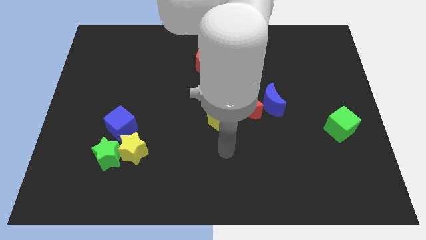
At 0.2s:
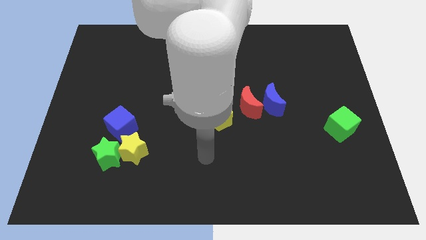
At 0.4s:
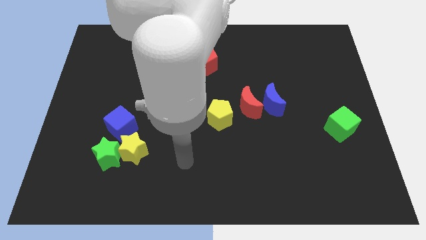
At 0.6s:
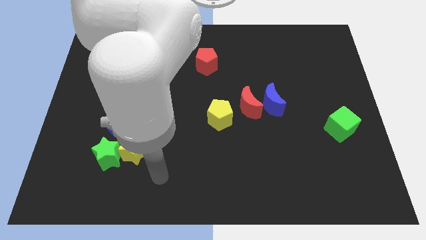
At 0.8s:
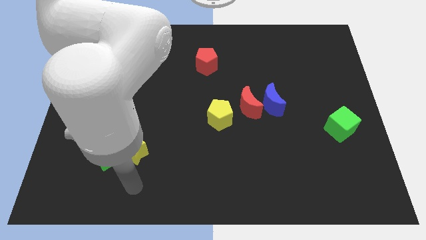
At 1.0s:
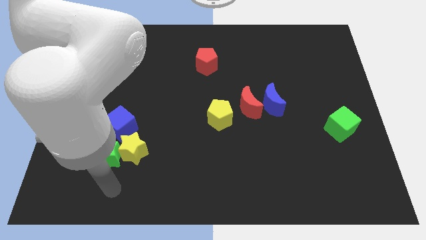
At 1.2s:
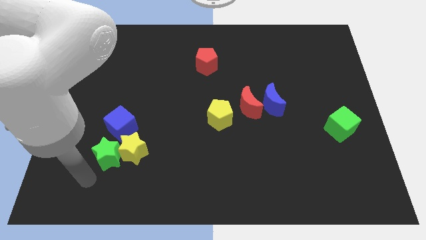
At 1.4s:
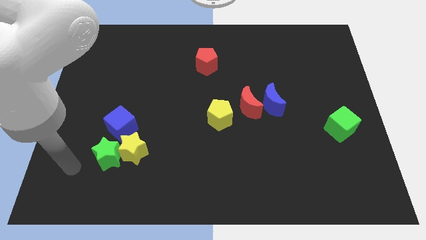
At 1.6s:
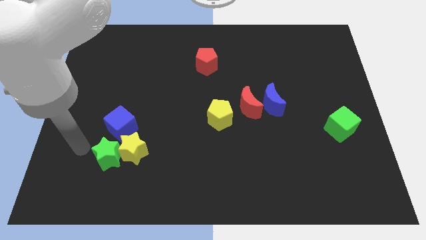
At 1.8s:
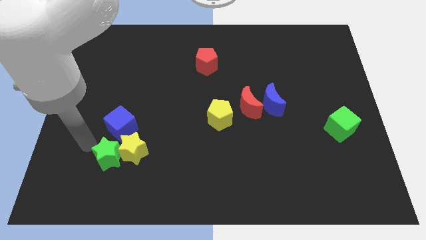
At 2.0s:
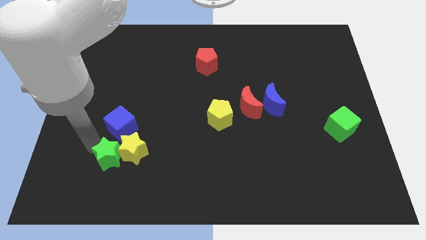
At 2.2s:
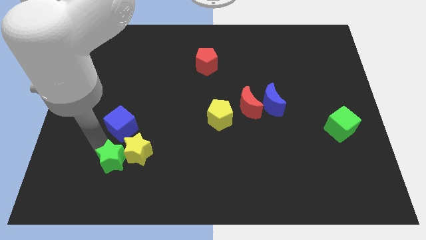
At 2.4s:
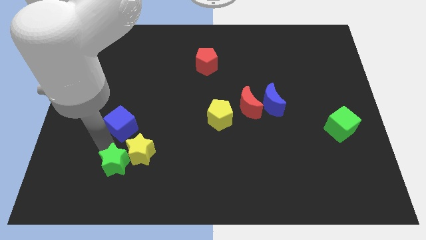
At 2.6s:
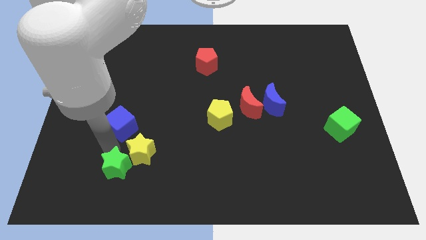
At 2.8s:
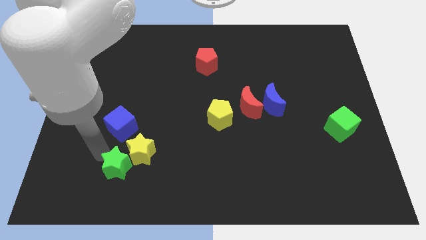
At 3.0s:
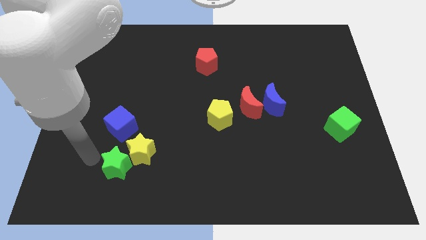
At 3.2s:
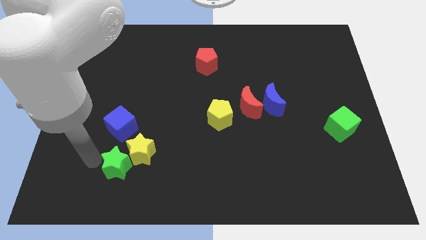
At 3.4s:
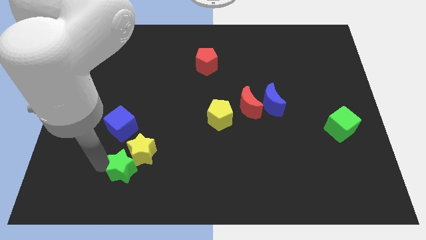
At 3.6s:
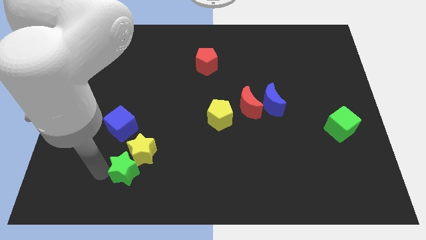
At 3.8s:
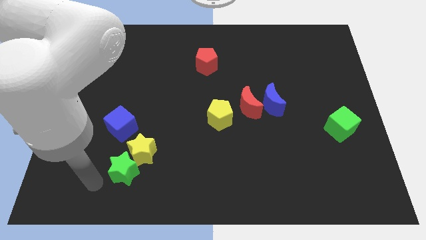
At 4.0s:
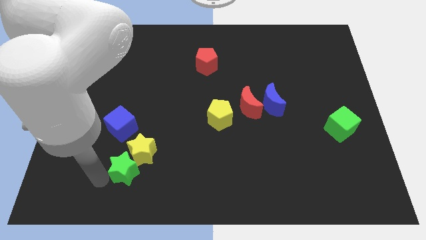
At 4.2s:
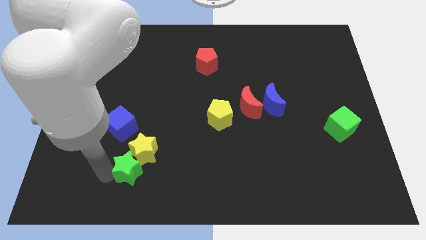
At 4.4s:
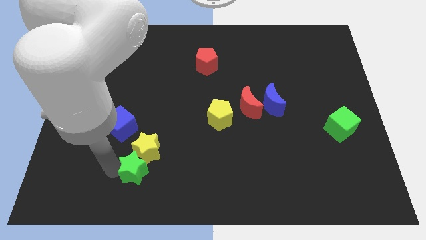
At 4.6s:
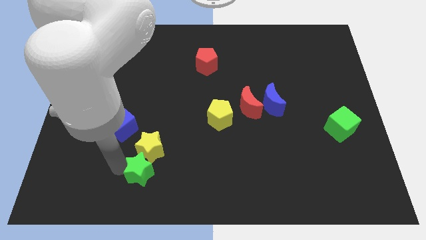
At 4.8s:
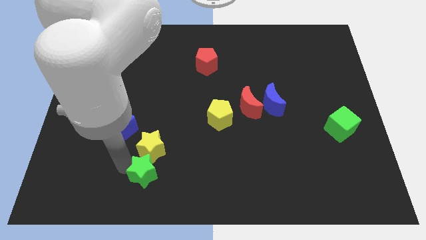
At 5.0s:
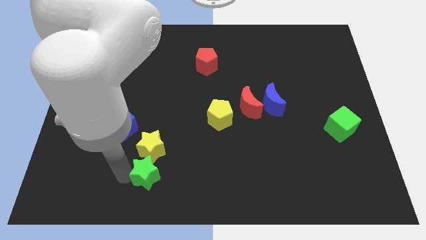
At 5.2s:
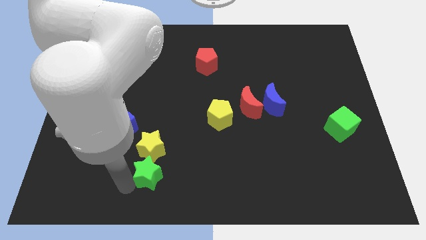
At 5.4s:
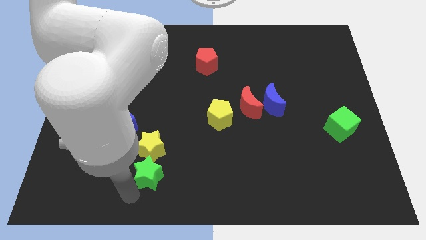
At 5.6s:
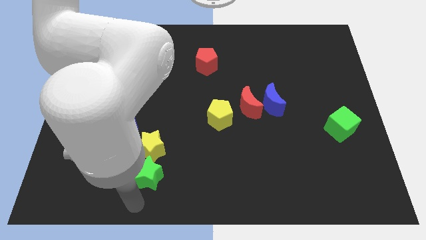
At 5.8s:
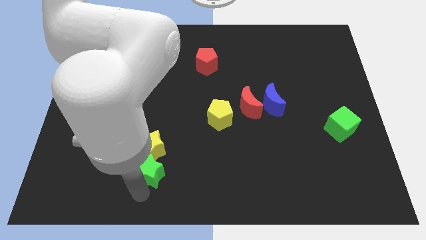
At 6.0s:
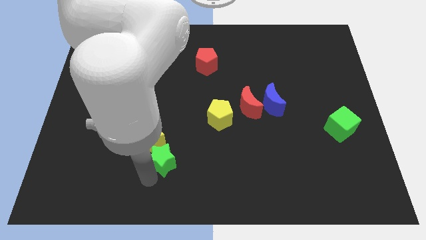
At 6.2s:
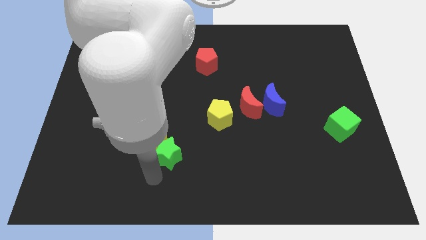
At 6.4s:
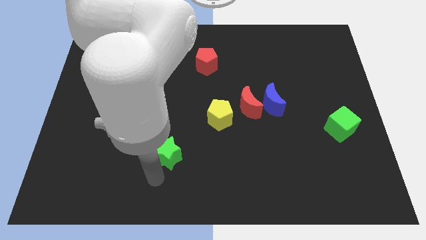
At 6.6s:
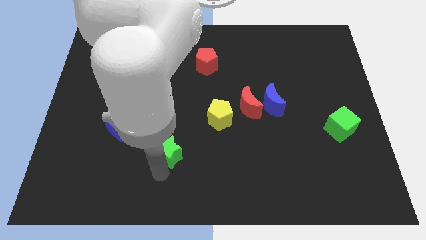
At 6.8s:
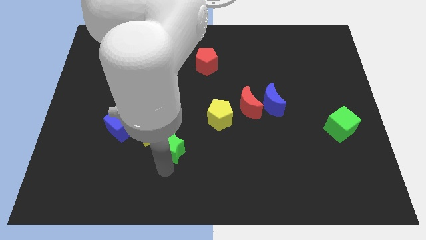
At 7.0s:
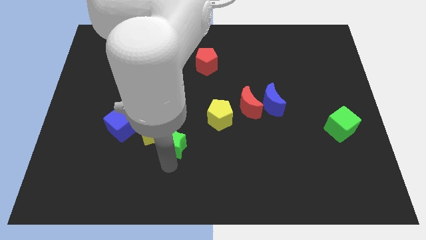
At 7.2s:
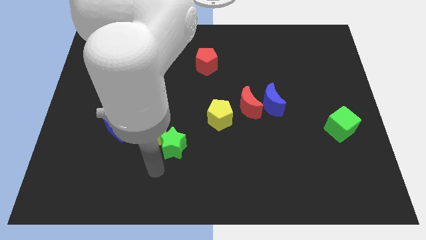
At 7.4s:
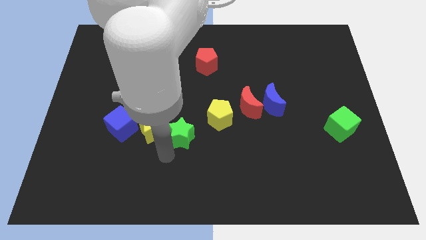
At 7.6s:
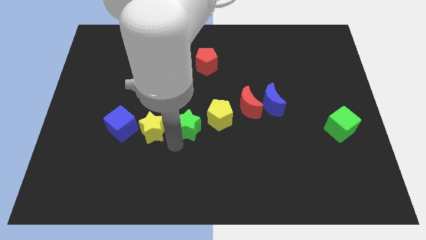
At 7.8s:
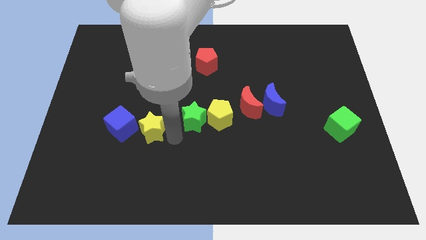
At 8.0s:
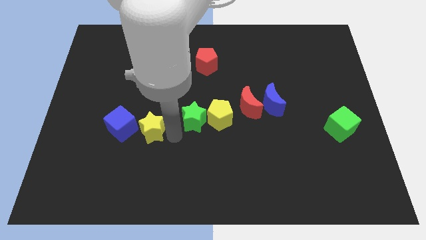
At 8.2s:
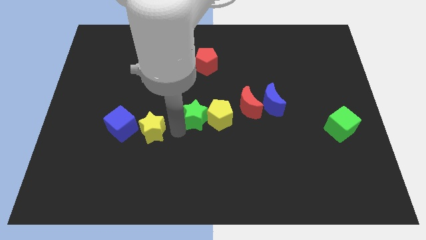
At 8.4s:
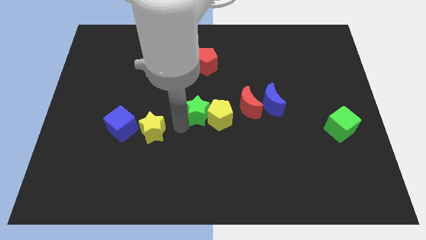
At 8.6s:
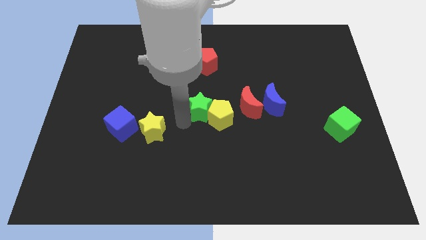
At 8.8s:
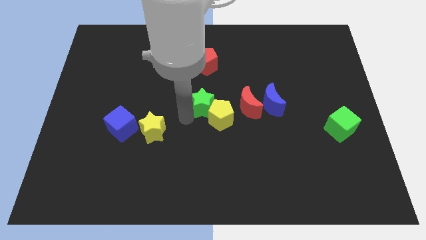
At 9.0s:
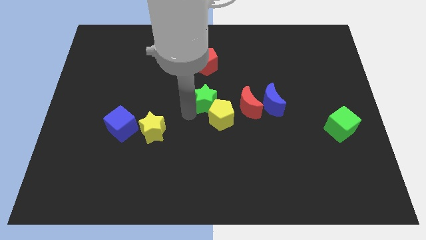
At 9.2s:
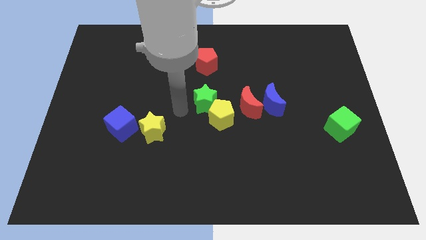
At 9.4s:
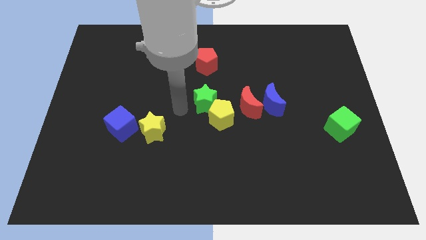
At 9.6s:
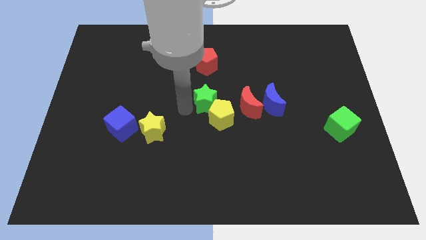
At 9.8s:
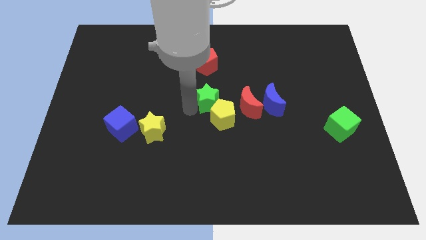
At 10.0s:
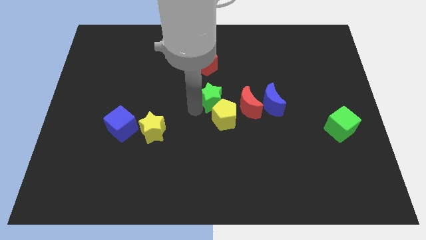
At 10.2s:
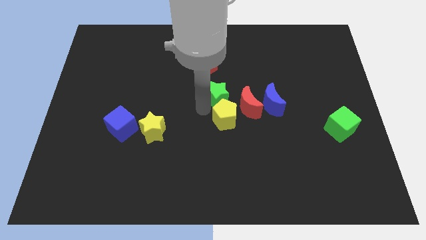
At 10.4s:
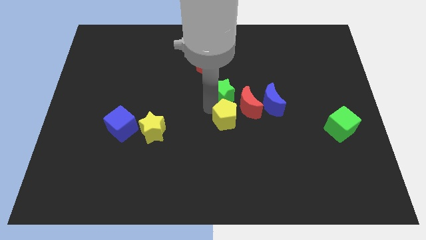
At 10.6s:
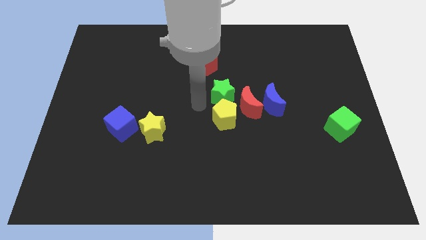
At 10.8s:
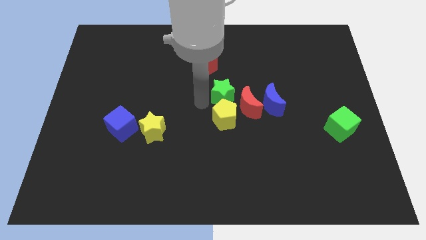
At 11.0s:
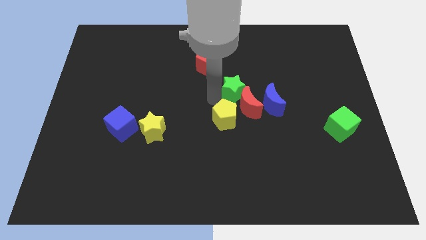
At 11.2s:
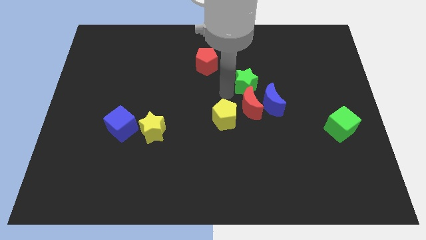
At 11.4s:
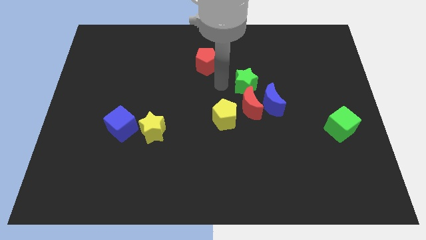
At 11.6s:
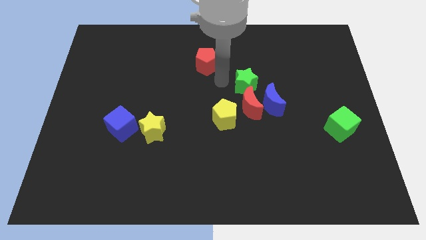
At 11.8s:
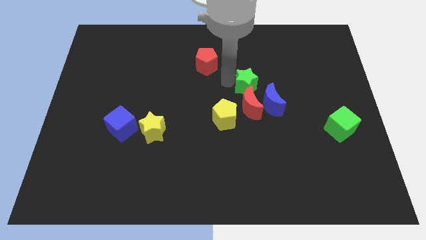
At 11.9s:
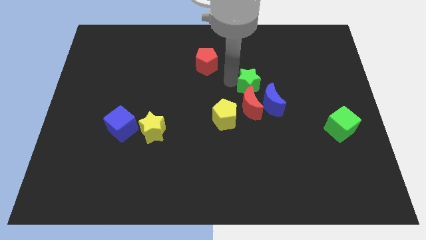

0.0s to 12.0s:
put the green star diagonally up and to the right of the red moon

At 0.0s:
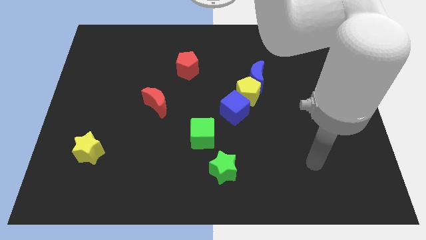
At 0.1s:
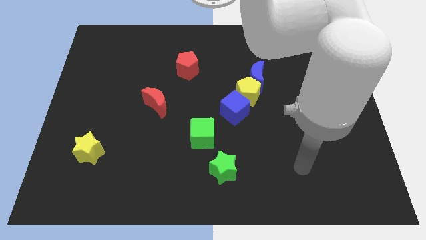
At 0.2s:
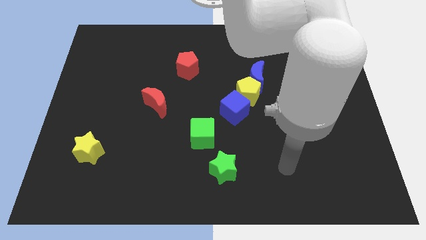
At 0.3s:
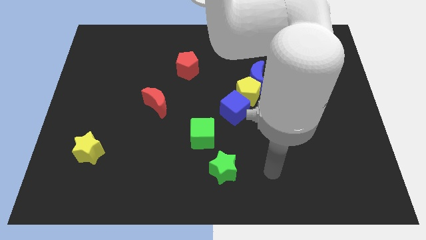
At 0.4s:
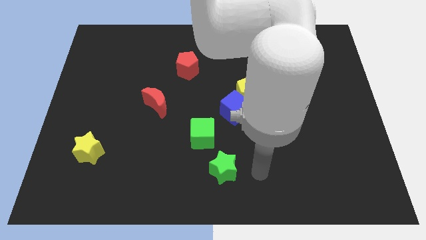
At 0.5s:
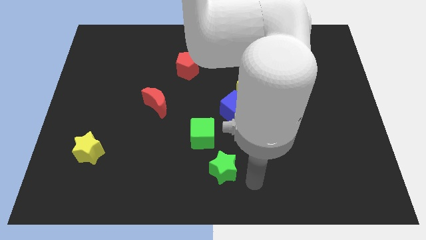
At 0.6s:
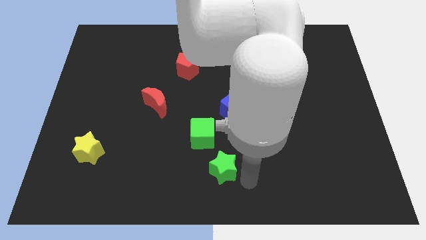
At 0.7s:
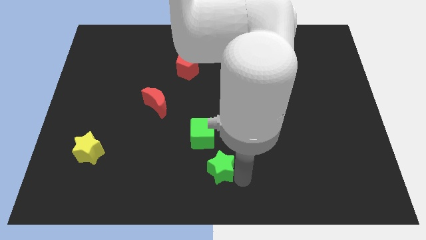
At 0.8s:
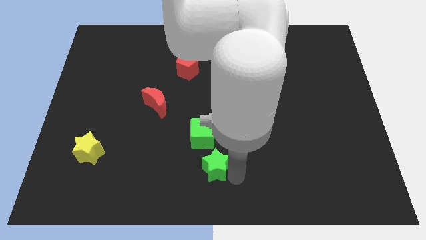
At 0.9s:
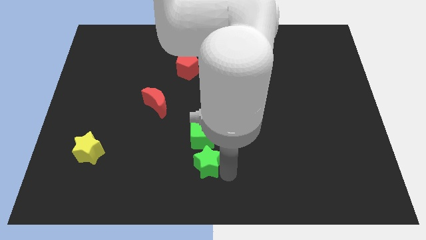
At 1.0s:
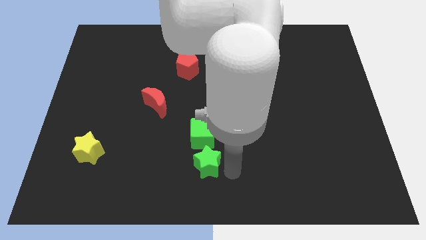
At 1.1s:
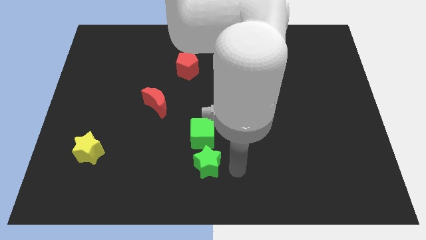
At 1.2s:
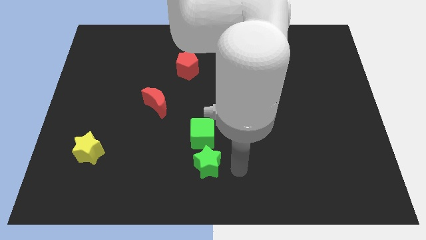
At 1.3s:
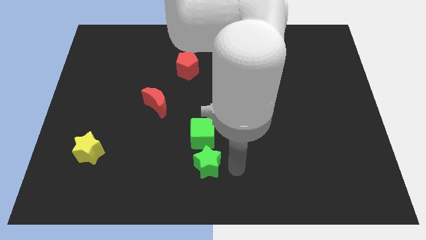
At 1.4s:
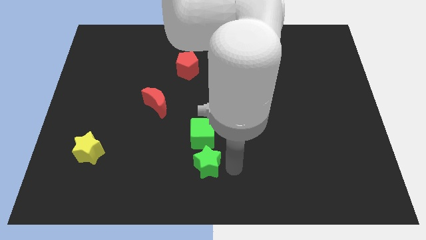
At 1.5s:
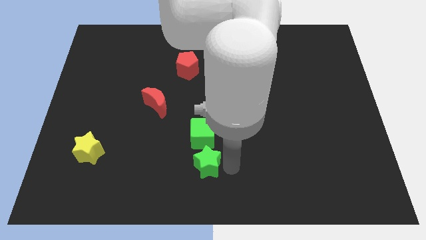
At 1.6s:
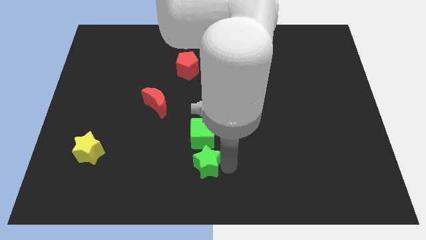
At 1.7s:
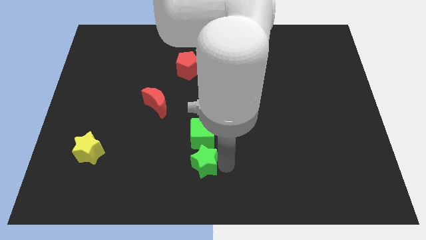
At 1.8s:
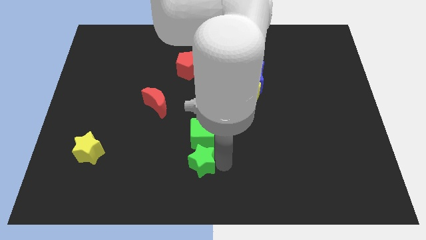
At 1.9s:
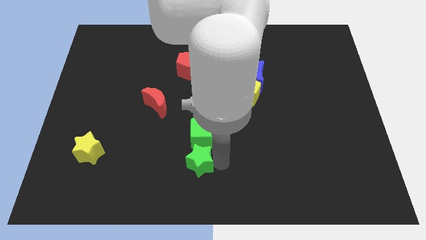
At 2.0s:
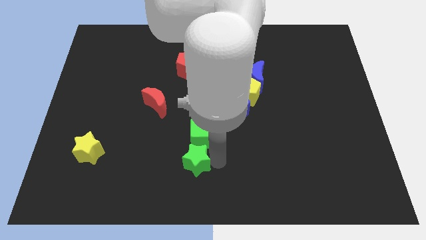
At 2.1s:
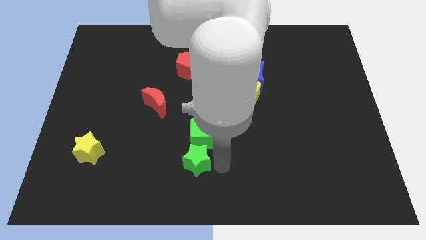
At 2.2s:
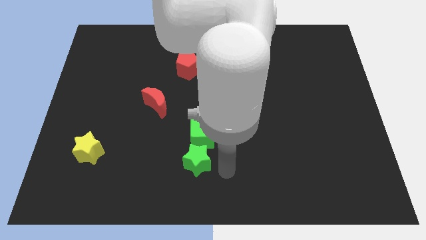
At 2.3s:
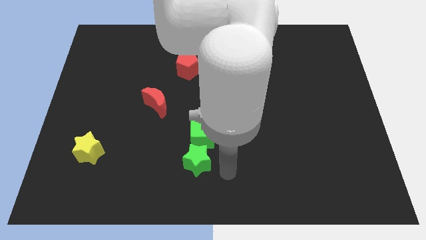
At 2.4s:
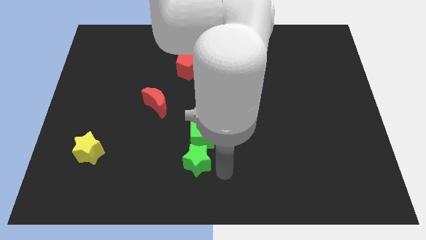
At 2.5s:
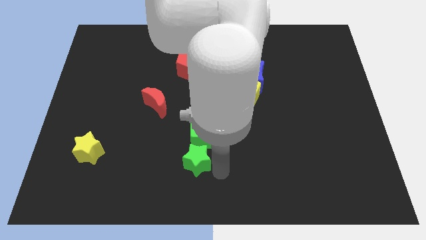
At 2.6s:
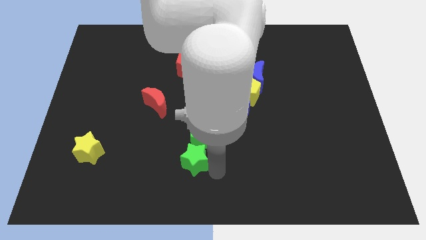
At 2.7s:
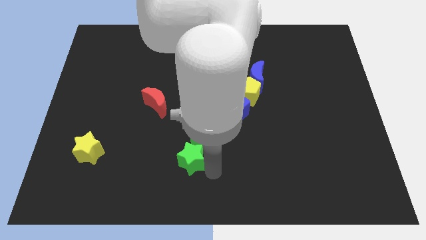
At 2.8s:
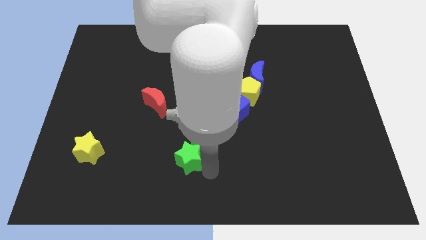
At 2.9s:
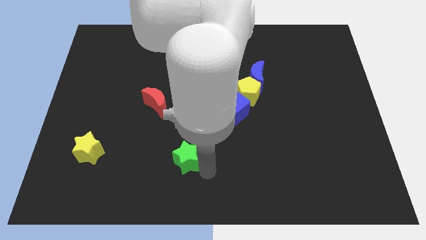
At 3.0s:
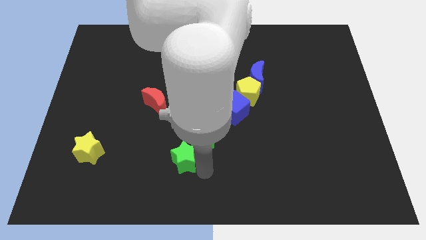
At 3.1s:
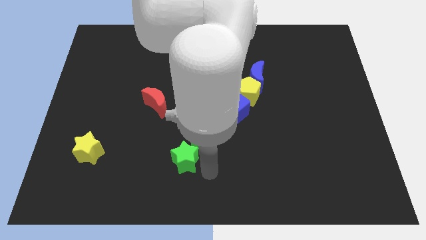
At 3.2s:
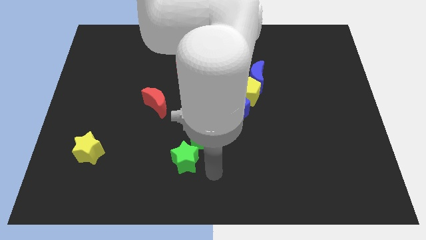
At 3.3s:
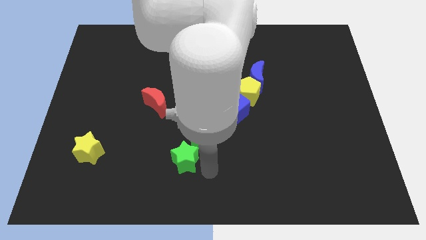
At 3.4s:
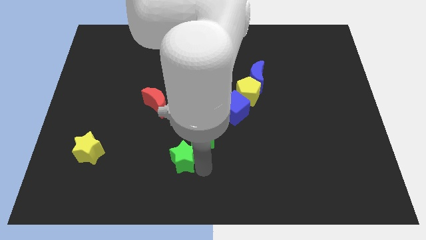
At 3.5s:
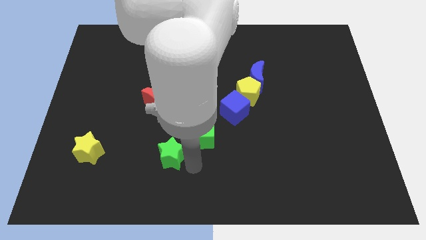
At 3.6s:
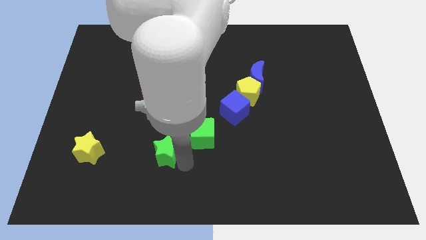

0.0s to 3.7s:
put the green star below the red moon
